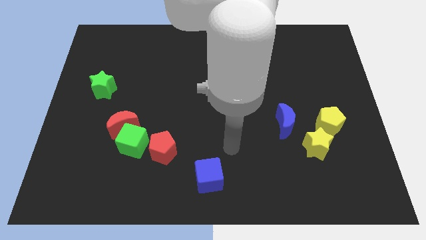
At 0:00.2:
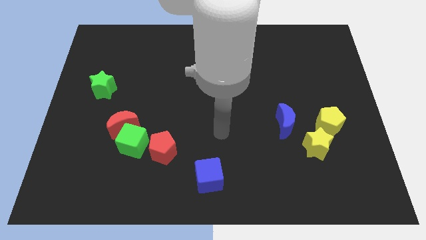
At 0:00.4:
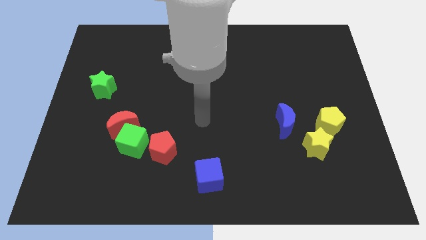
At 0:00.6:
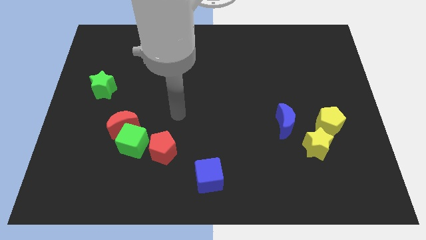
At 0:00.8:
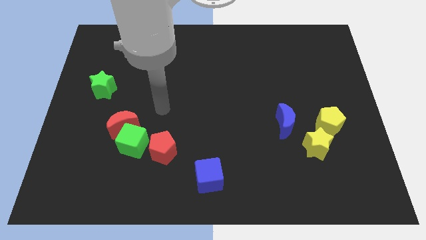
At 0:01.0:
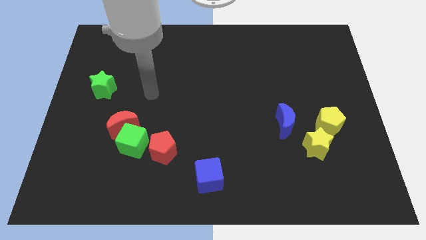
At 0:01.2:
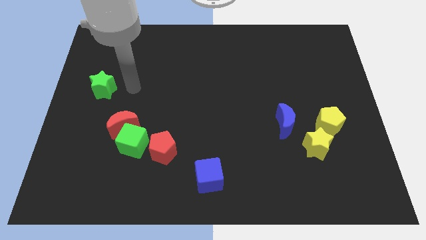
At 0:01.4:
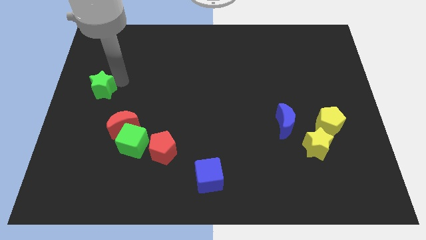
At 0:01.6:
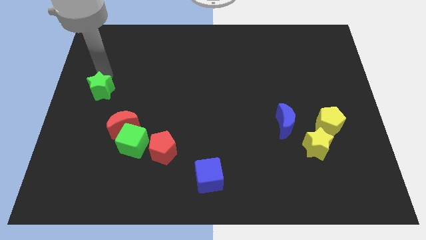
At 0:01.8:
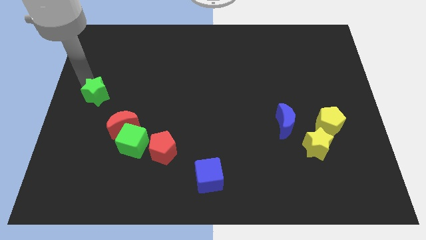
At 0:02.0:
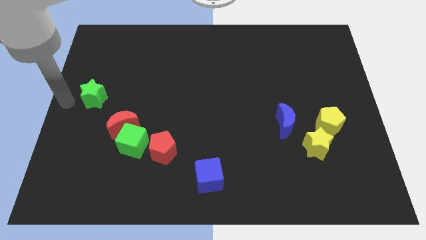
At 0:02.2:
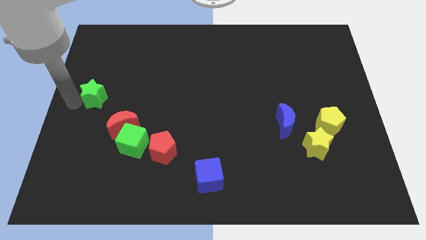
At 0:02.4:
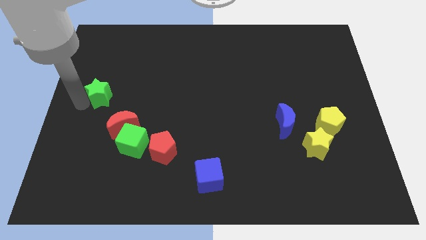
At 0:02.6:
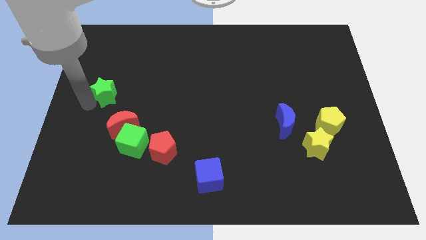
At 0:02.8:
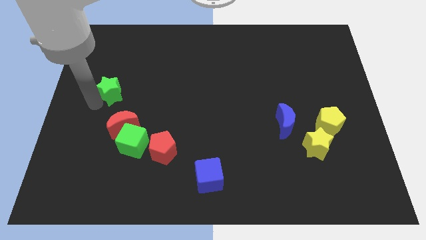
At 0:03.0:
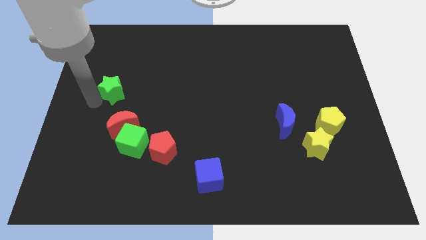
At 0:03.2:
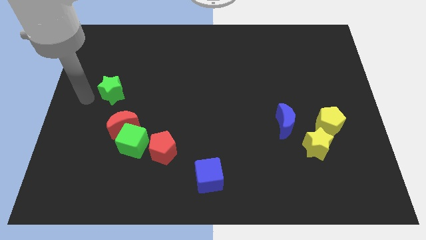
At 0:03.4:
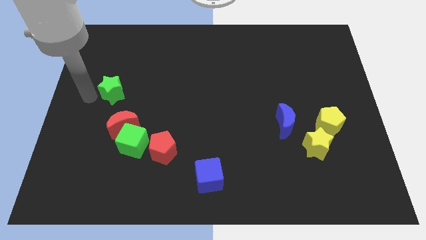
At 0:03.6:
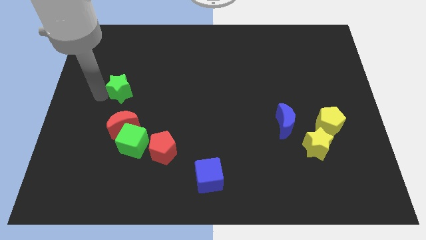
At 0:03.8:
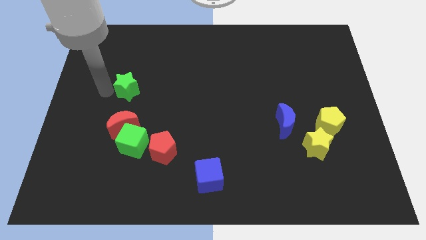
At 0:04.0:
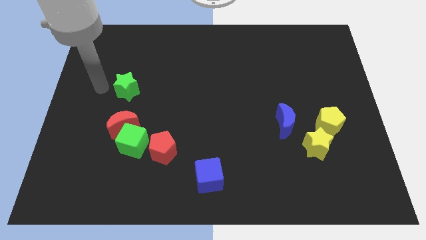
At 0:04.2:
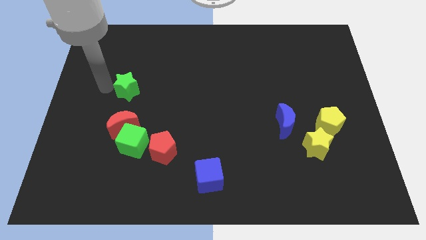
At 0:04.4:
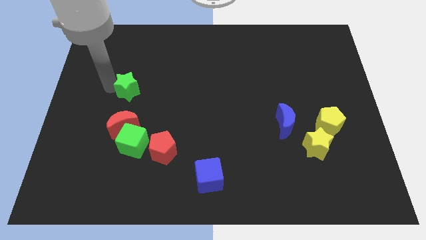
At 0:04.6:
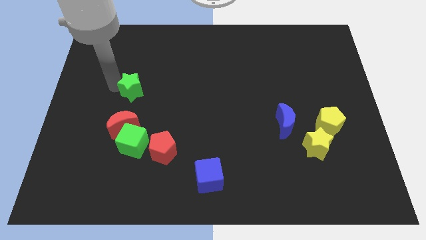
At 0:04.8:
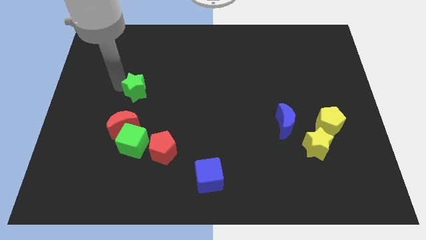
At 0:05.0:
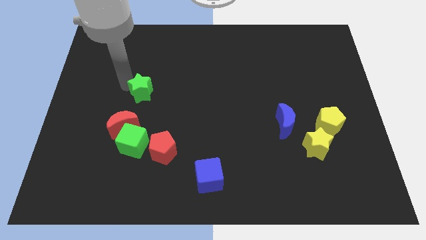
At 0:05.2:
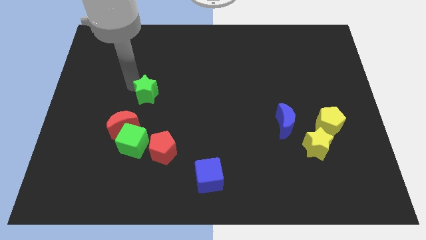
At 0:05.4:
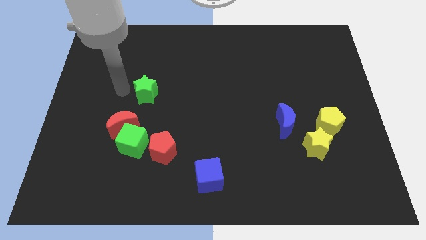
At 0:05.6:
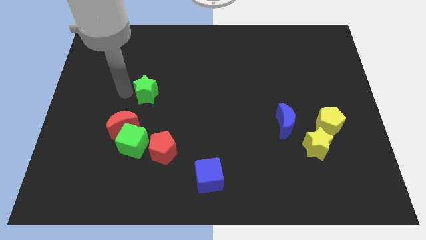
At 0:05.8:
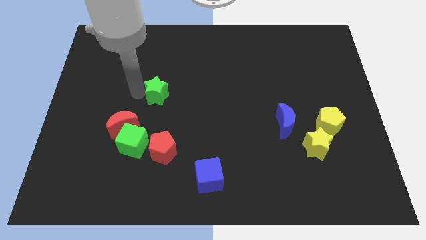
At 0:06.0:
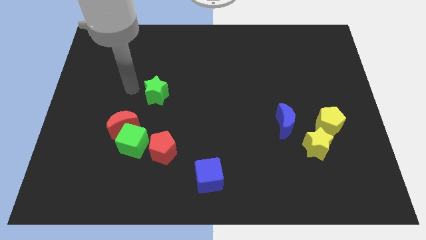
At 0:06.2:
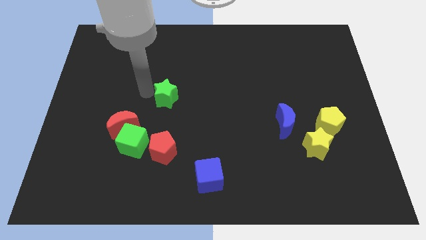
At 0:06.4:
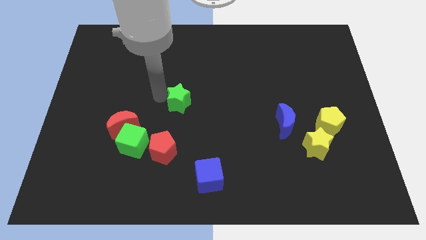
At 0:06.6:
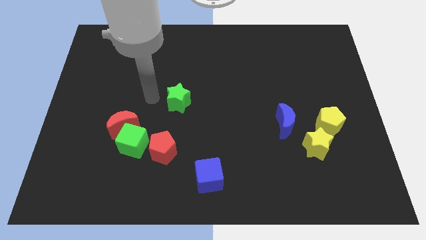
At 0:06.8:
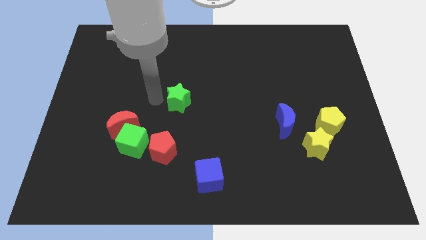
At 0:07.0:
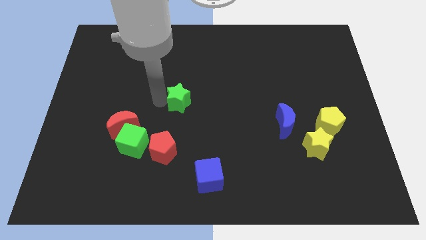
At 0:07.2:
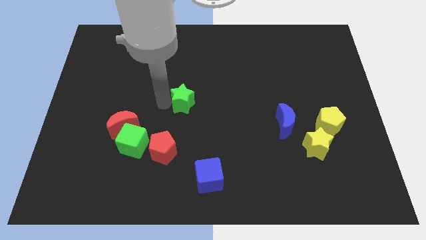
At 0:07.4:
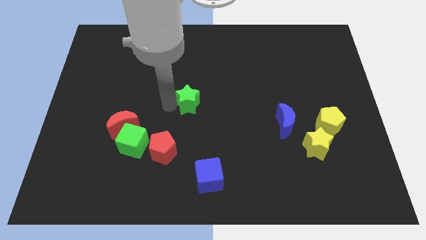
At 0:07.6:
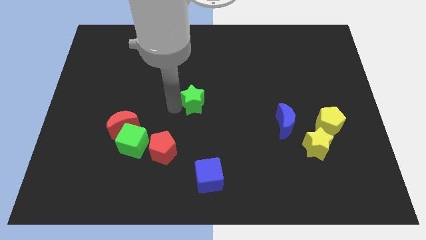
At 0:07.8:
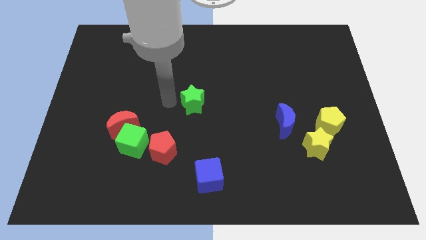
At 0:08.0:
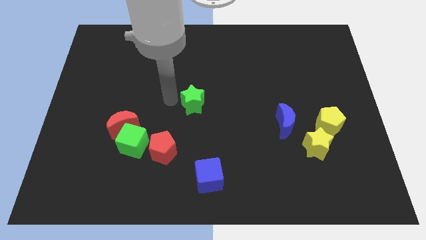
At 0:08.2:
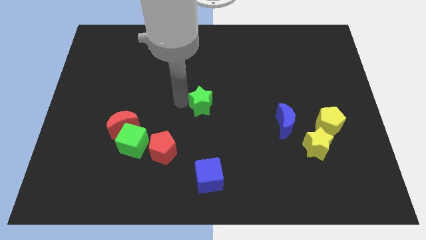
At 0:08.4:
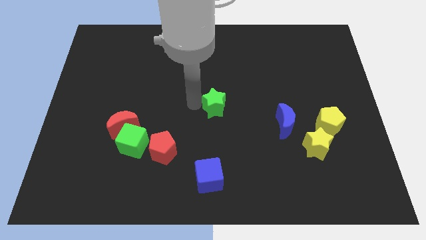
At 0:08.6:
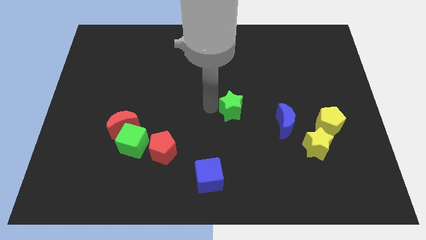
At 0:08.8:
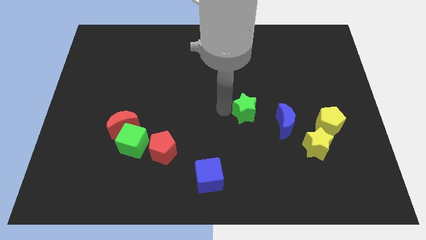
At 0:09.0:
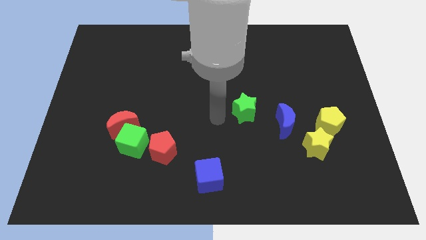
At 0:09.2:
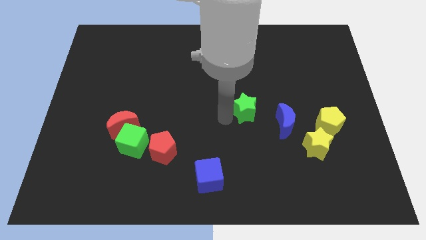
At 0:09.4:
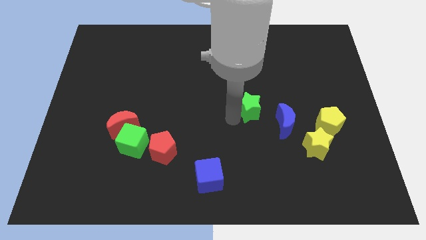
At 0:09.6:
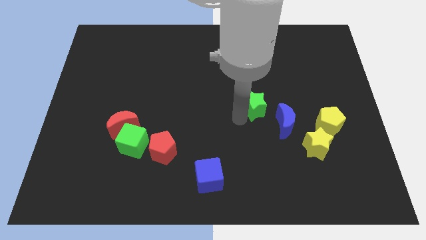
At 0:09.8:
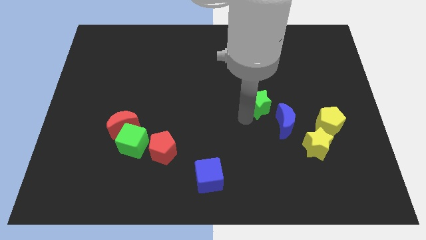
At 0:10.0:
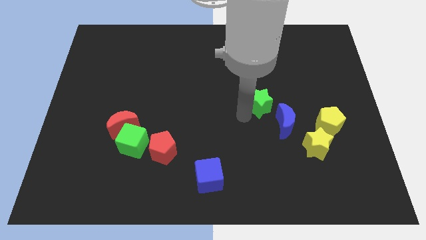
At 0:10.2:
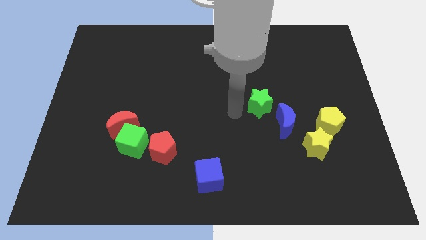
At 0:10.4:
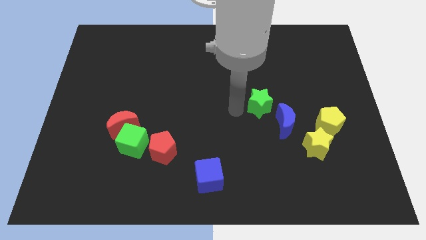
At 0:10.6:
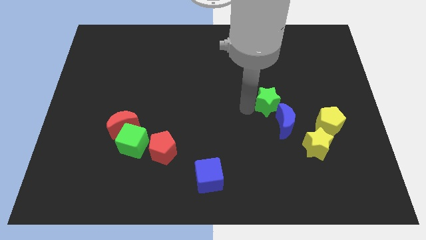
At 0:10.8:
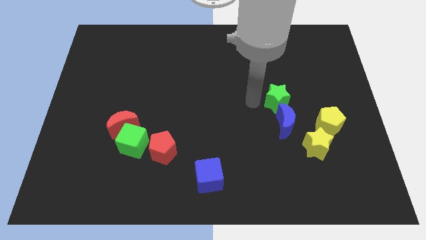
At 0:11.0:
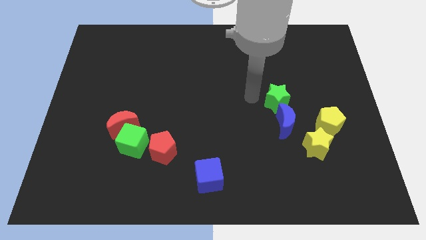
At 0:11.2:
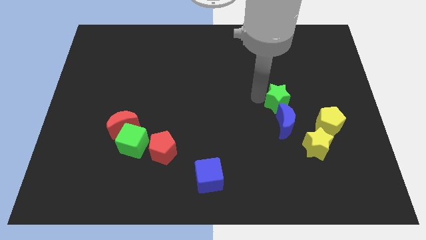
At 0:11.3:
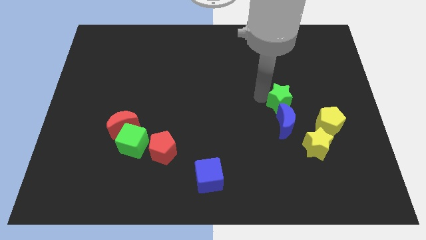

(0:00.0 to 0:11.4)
move the green star to the top left side of the yellow pentagon

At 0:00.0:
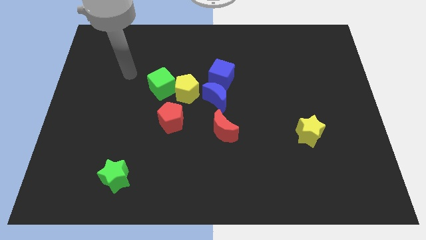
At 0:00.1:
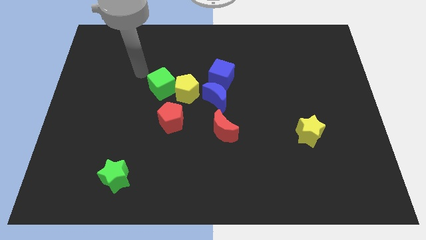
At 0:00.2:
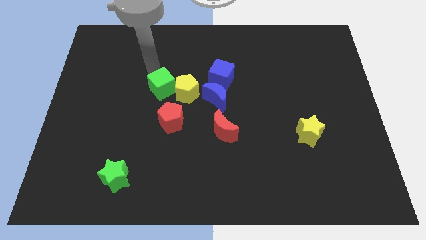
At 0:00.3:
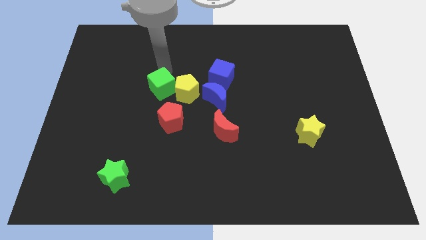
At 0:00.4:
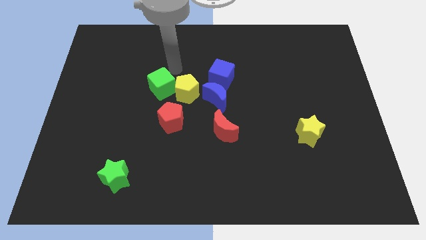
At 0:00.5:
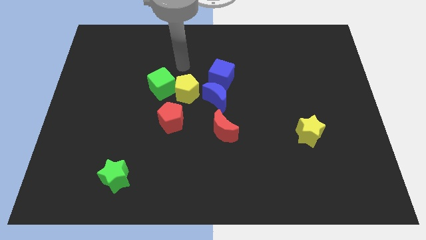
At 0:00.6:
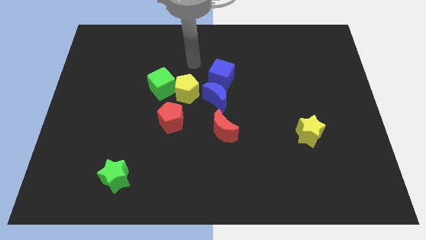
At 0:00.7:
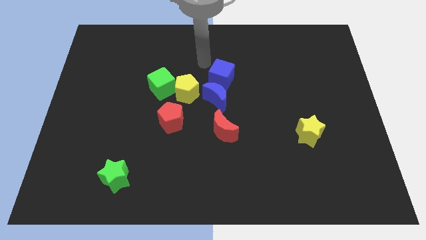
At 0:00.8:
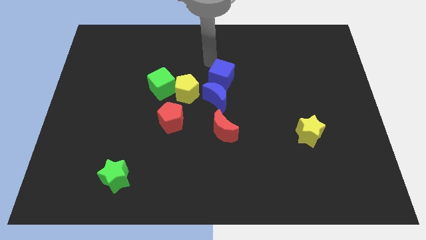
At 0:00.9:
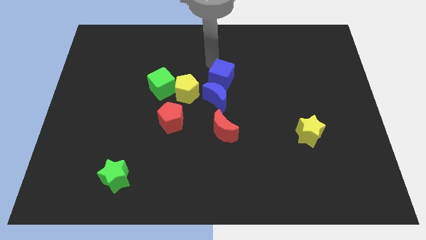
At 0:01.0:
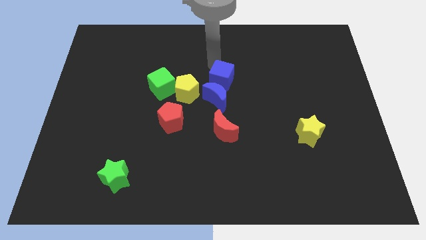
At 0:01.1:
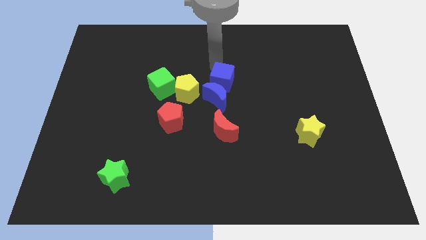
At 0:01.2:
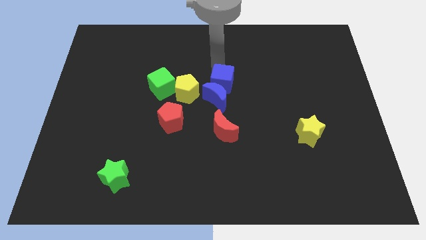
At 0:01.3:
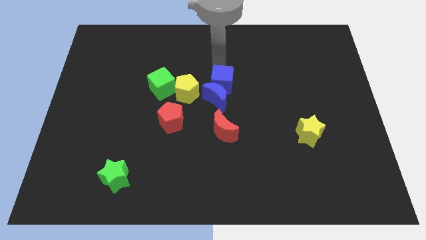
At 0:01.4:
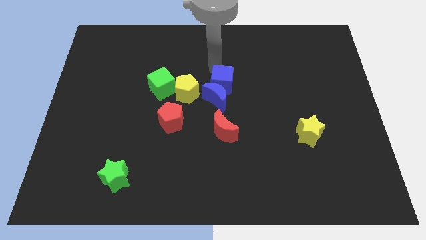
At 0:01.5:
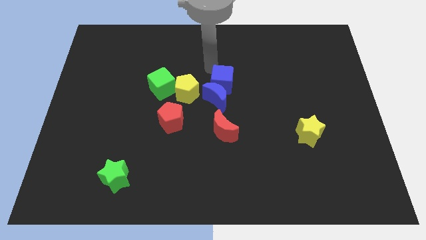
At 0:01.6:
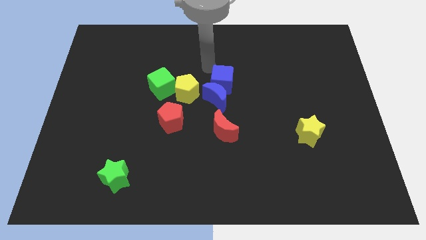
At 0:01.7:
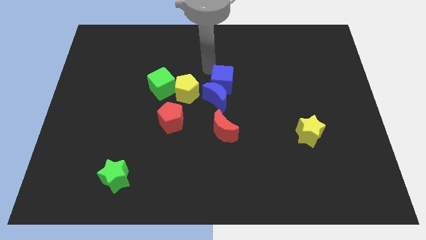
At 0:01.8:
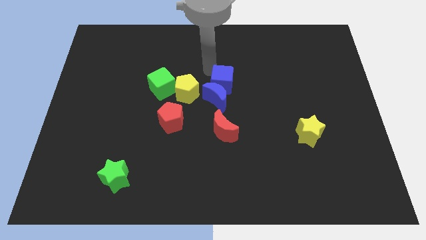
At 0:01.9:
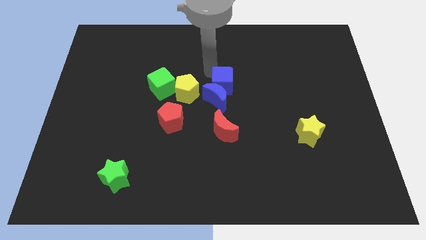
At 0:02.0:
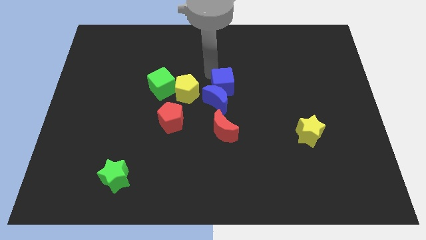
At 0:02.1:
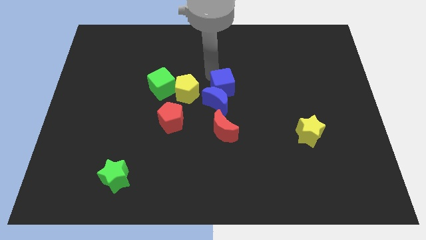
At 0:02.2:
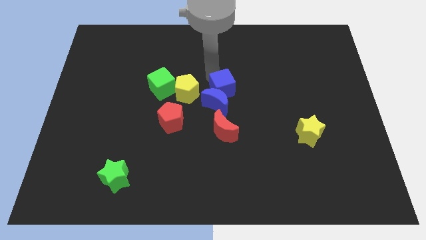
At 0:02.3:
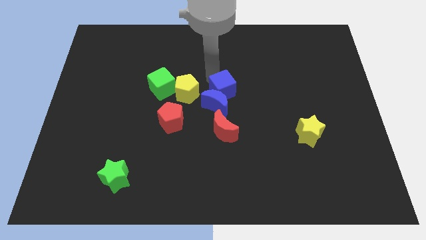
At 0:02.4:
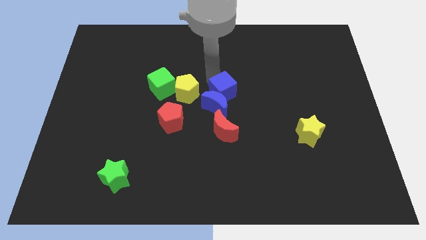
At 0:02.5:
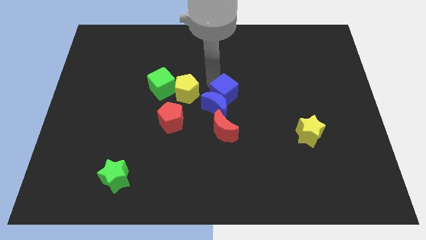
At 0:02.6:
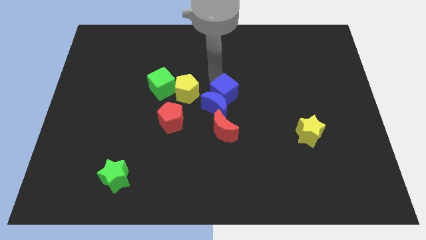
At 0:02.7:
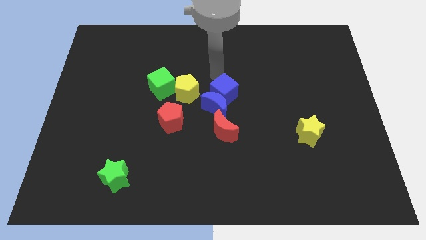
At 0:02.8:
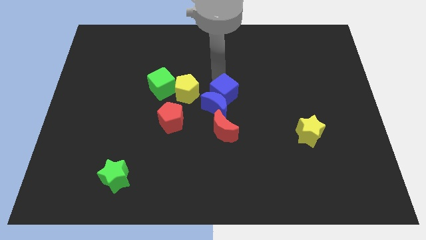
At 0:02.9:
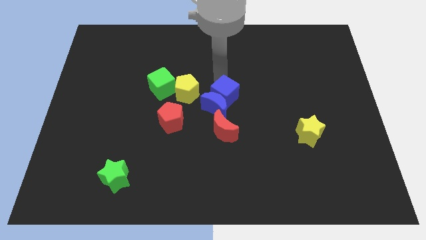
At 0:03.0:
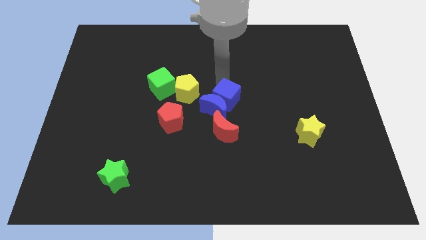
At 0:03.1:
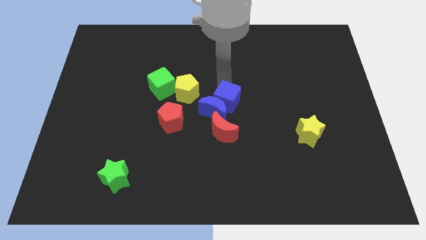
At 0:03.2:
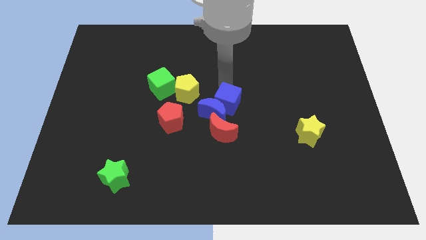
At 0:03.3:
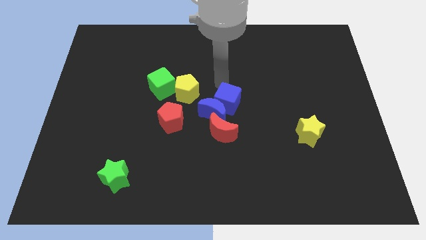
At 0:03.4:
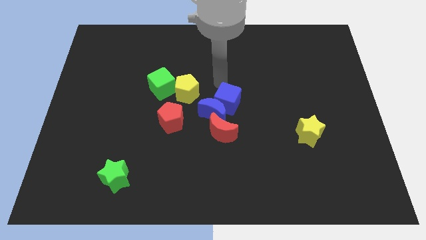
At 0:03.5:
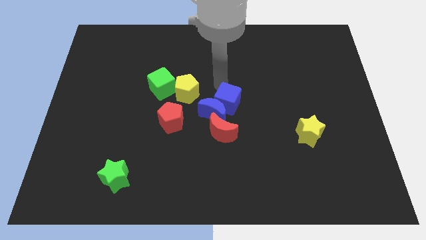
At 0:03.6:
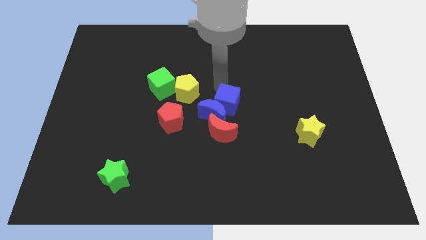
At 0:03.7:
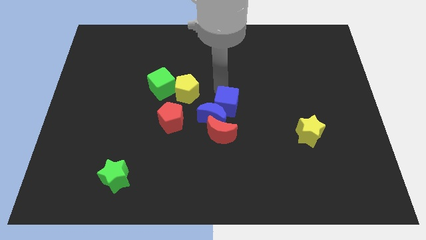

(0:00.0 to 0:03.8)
put the blue cube to the right of the red pentagon
